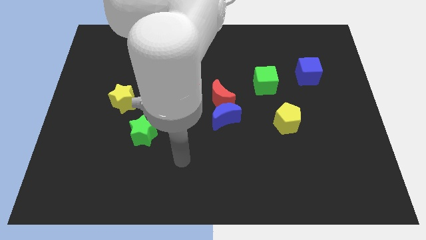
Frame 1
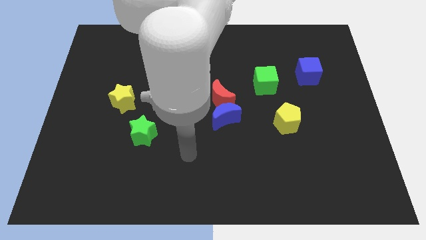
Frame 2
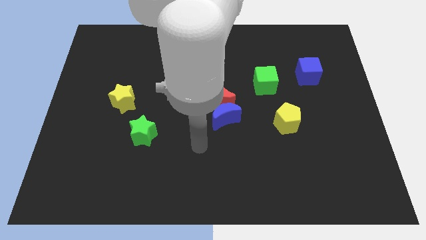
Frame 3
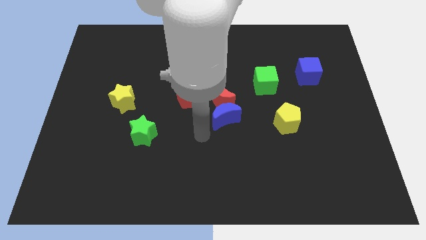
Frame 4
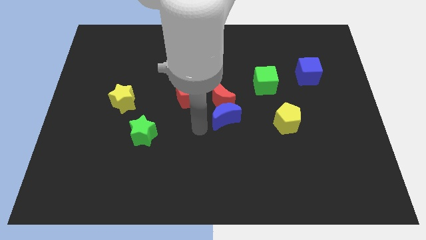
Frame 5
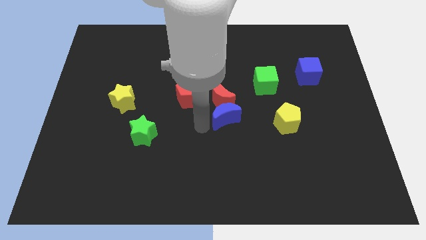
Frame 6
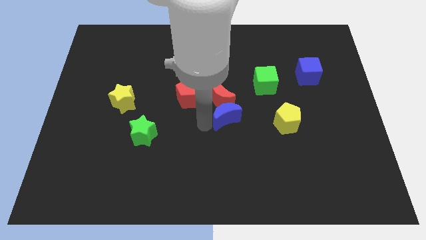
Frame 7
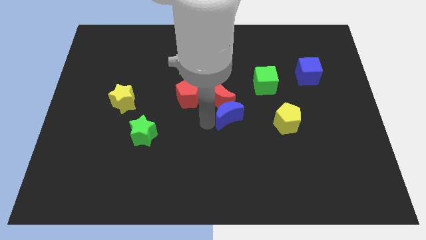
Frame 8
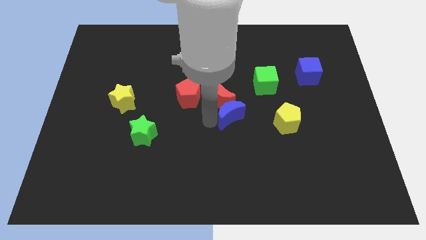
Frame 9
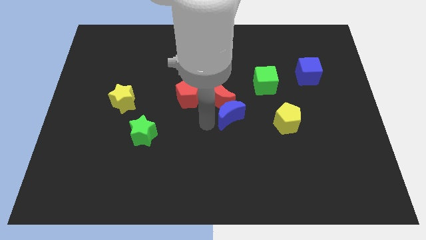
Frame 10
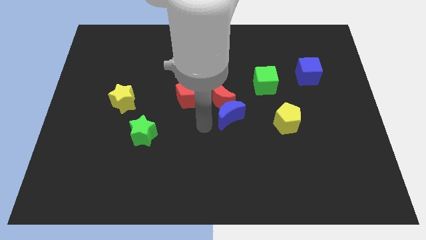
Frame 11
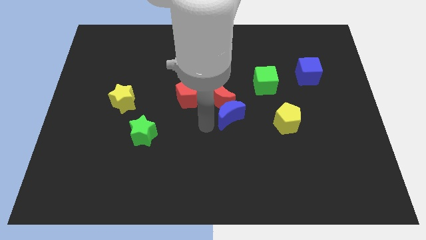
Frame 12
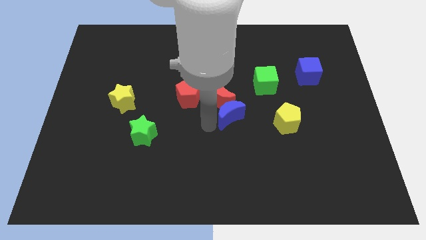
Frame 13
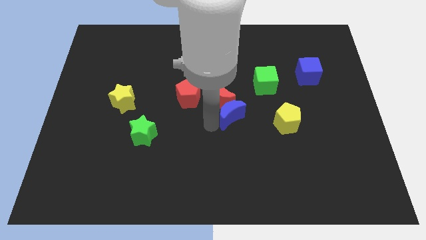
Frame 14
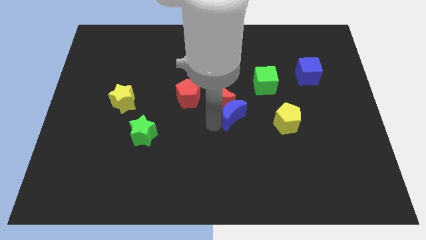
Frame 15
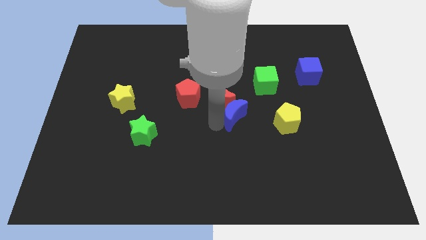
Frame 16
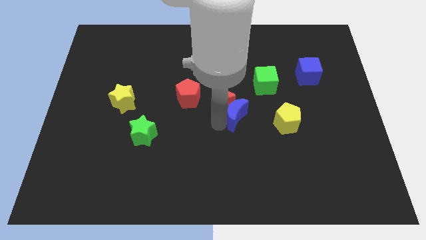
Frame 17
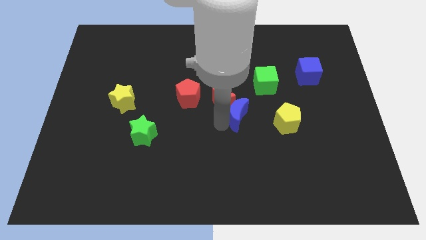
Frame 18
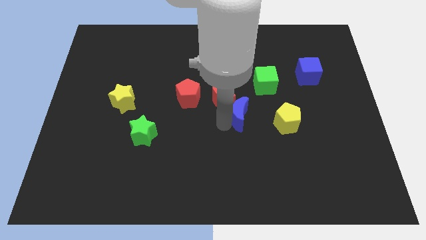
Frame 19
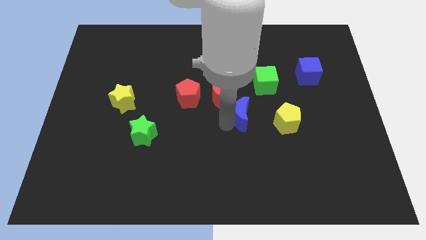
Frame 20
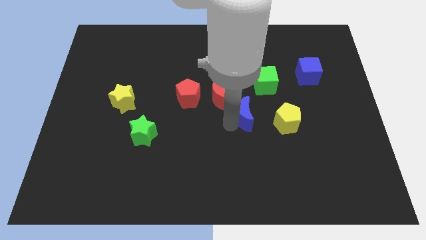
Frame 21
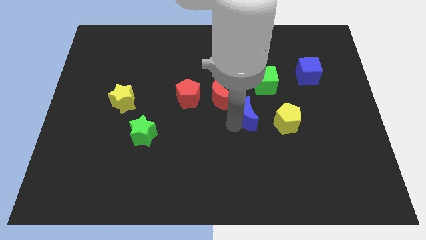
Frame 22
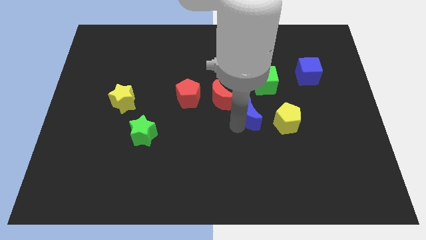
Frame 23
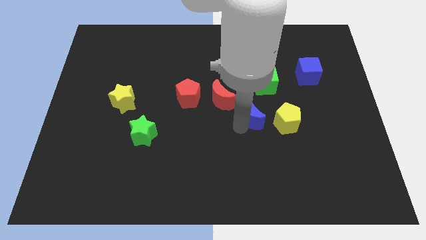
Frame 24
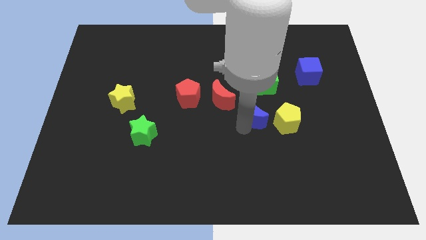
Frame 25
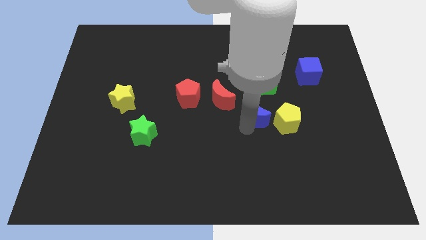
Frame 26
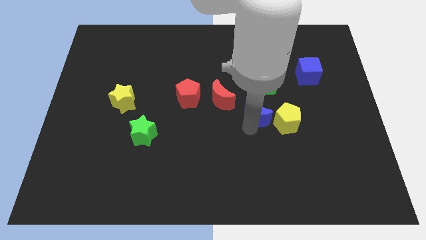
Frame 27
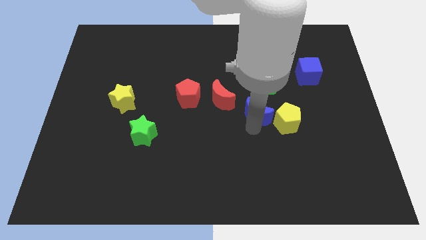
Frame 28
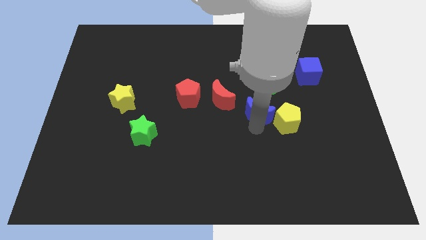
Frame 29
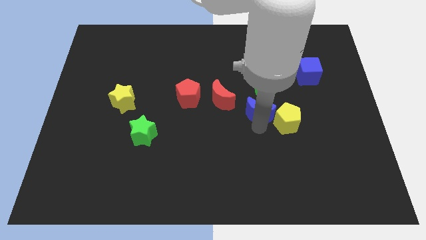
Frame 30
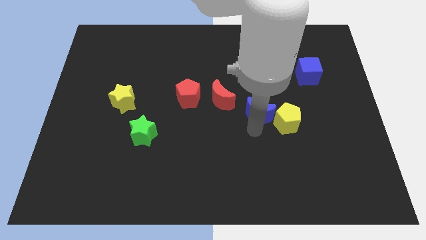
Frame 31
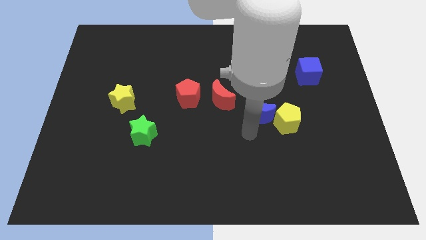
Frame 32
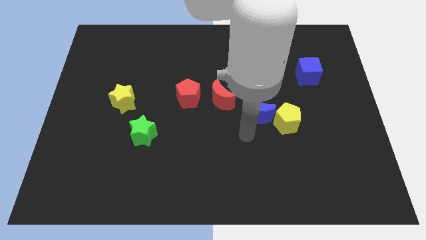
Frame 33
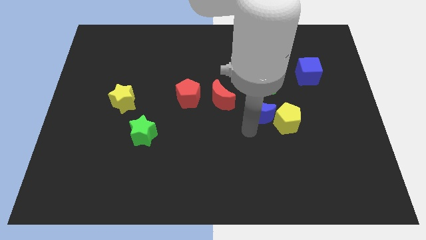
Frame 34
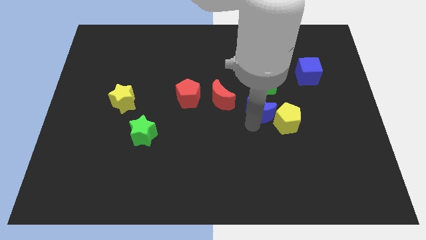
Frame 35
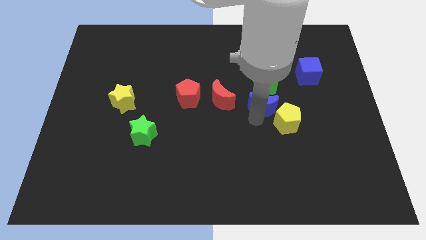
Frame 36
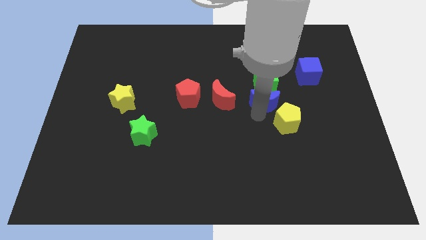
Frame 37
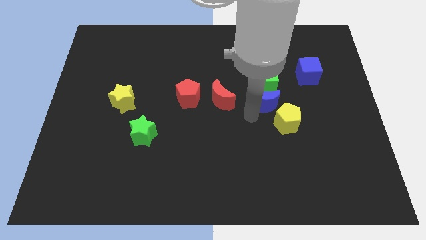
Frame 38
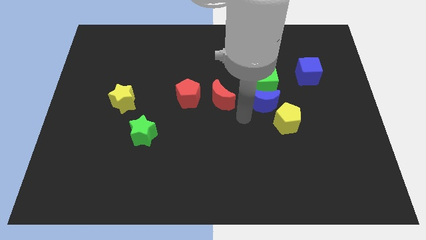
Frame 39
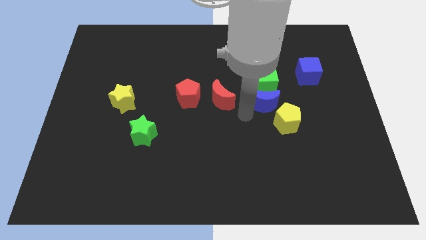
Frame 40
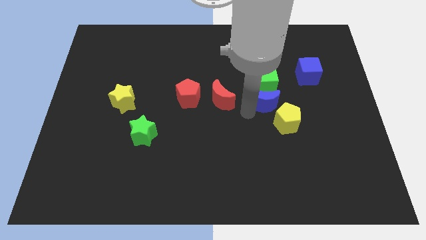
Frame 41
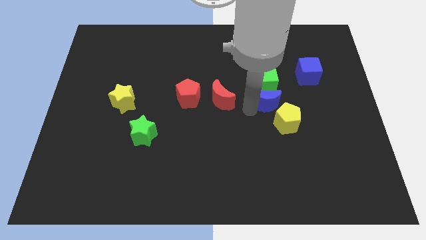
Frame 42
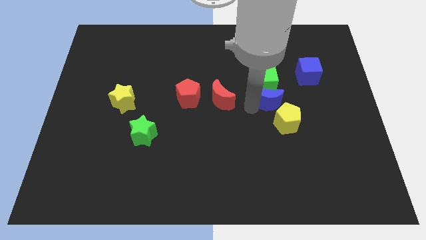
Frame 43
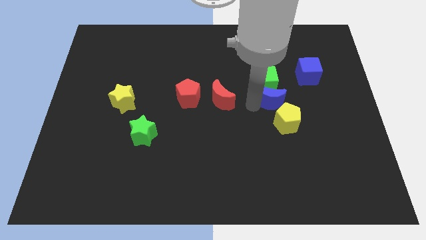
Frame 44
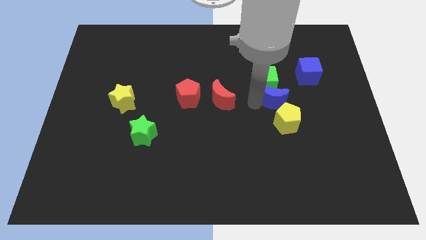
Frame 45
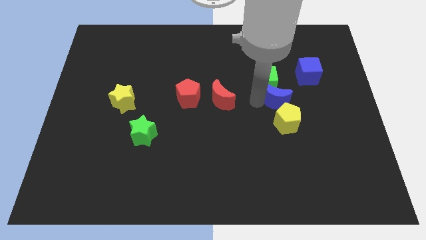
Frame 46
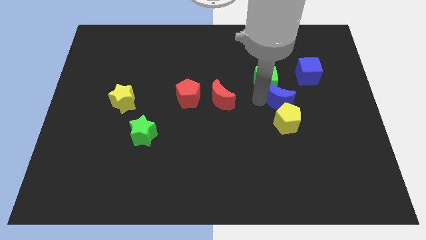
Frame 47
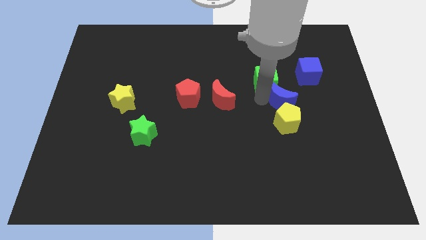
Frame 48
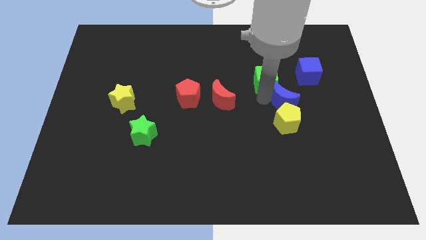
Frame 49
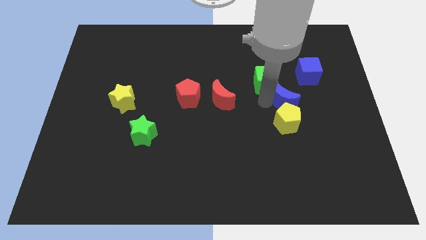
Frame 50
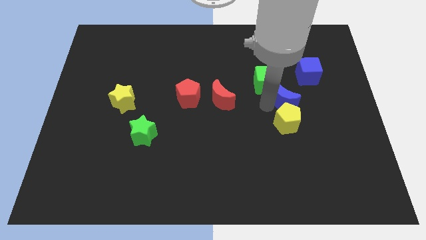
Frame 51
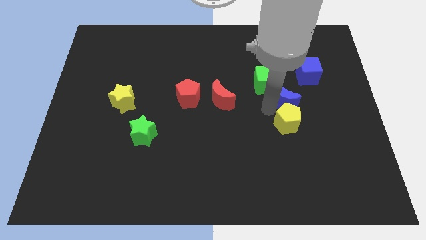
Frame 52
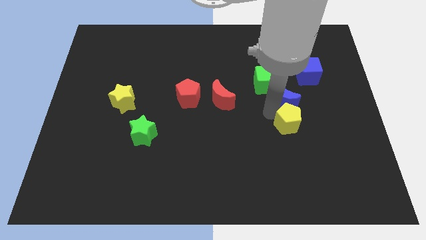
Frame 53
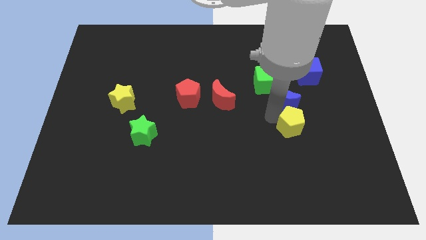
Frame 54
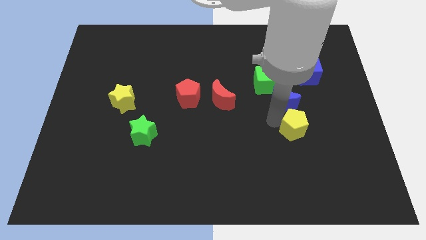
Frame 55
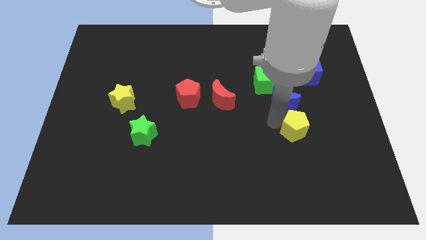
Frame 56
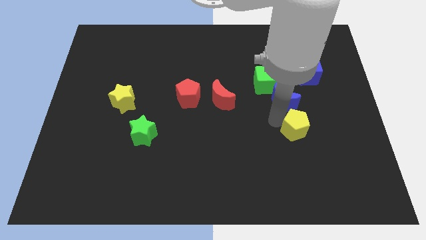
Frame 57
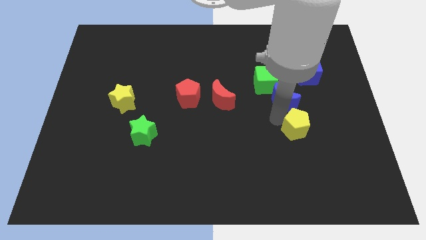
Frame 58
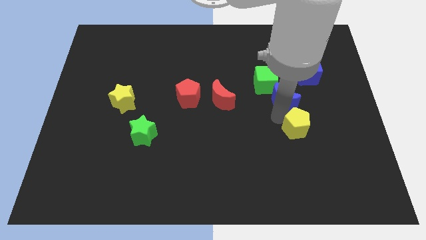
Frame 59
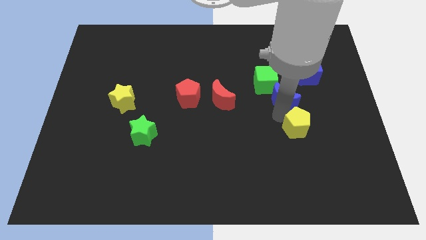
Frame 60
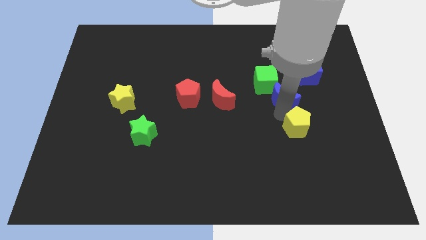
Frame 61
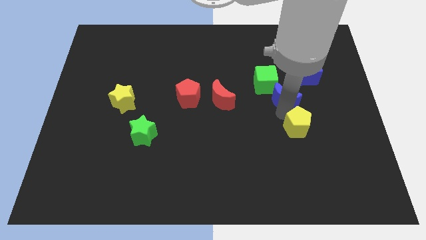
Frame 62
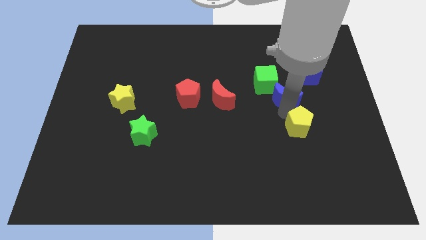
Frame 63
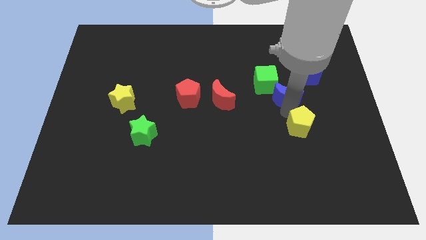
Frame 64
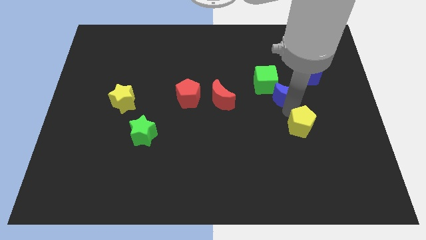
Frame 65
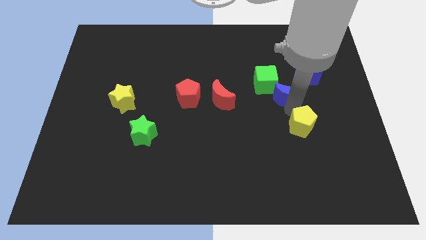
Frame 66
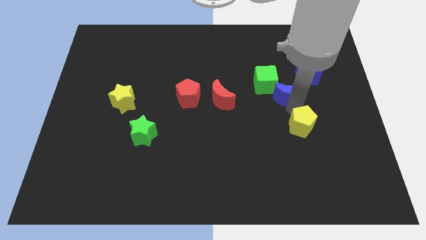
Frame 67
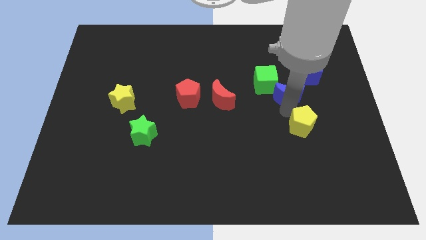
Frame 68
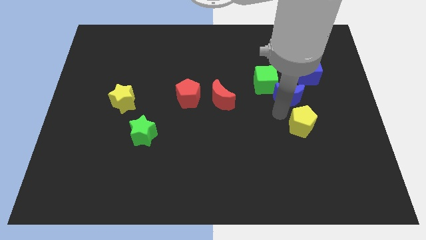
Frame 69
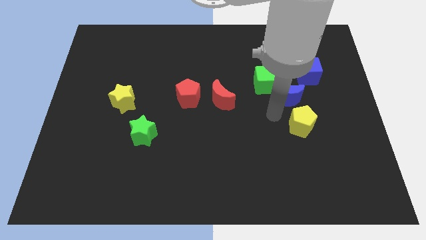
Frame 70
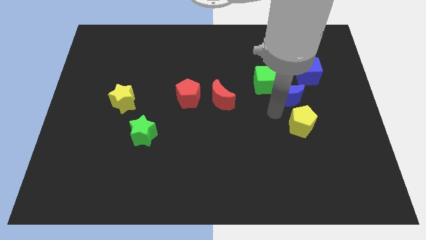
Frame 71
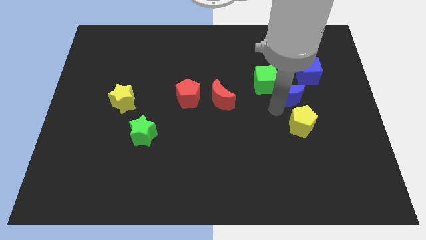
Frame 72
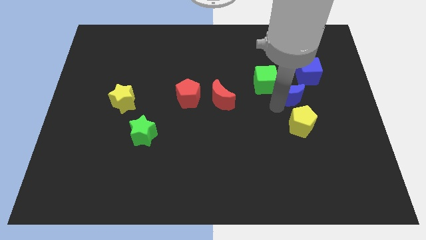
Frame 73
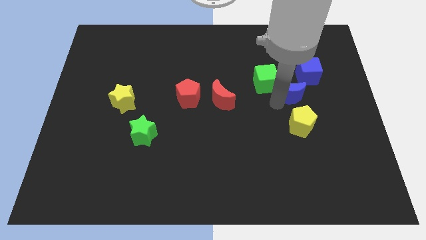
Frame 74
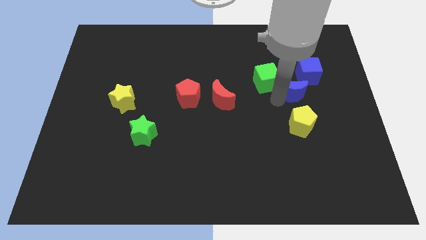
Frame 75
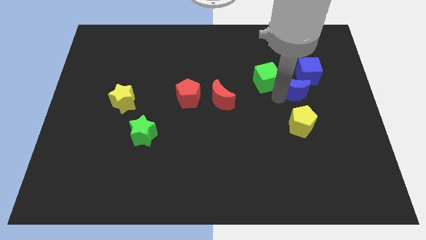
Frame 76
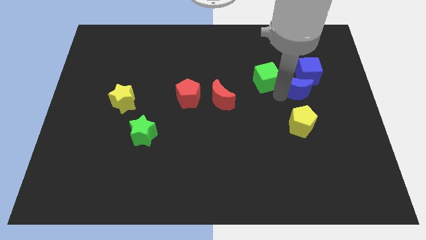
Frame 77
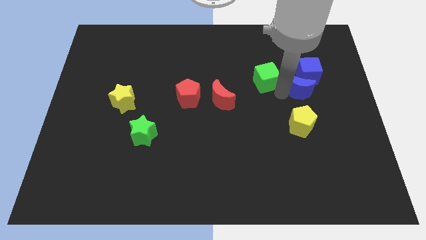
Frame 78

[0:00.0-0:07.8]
push the blue moon next to the blue cube
